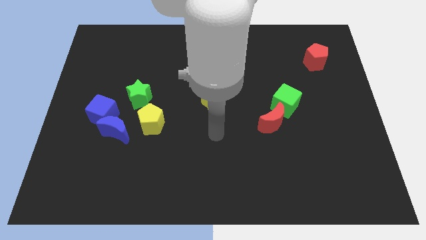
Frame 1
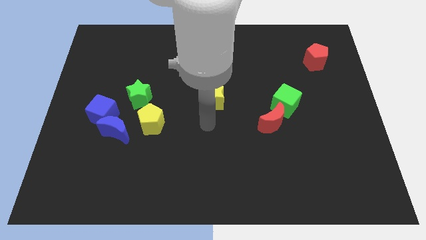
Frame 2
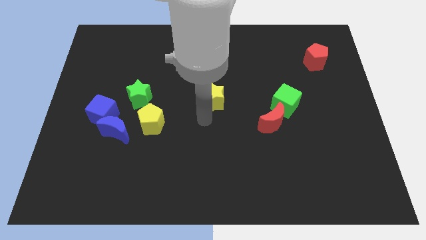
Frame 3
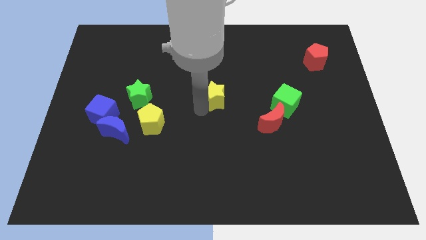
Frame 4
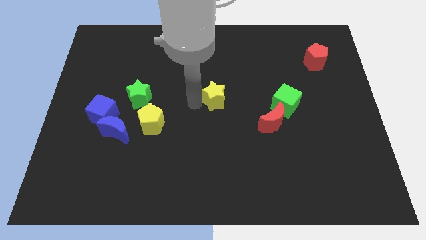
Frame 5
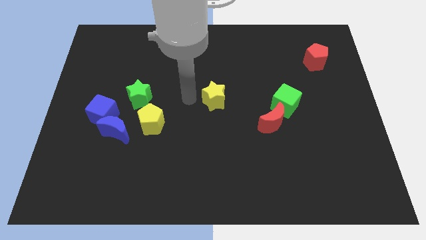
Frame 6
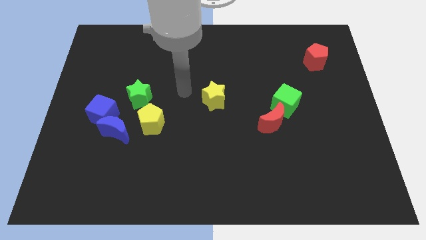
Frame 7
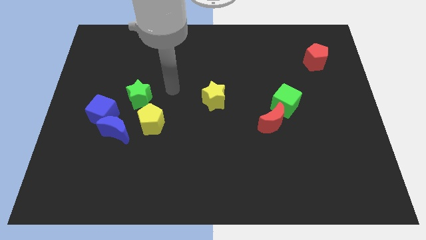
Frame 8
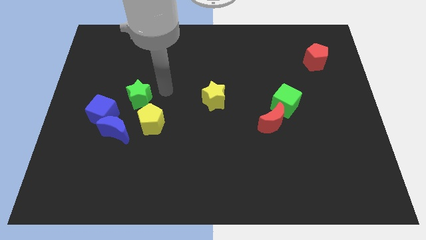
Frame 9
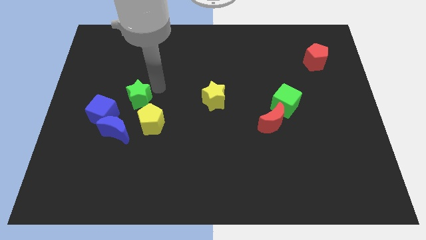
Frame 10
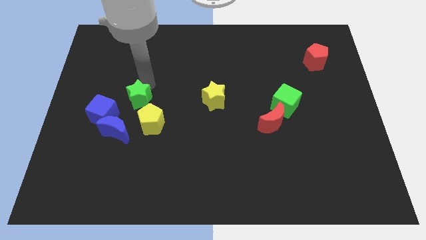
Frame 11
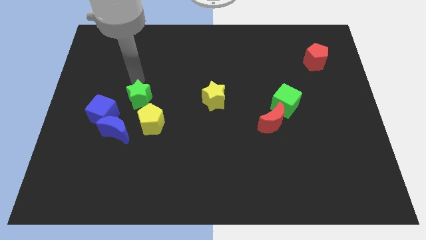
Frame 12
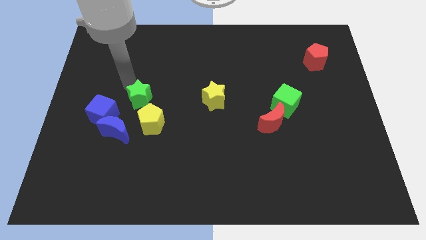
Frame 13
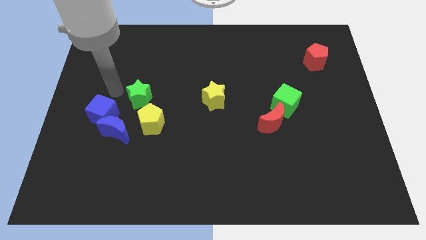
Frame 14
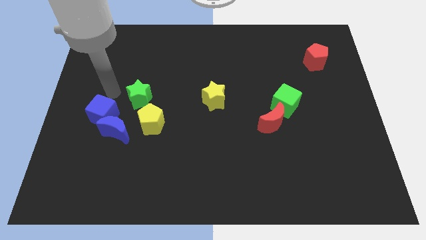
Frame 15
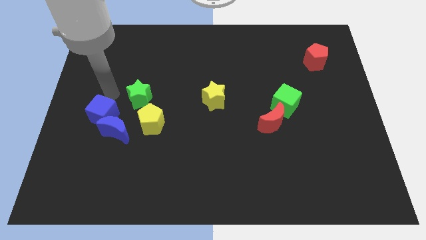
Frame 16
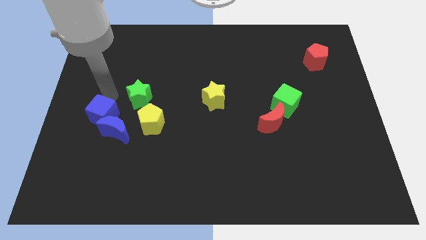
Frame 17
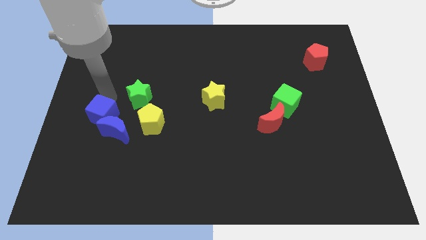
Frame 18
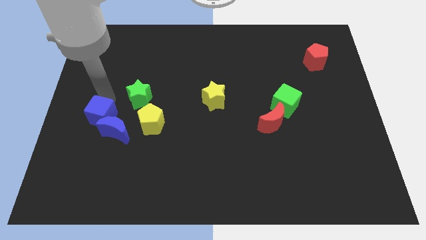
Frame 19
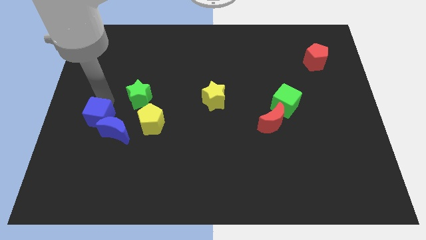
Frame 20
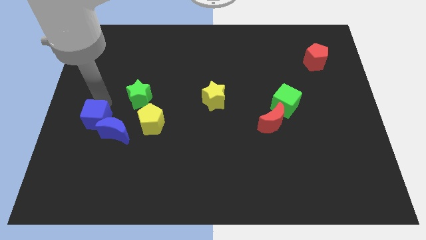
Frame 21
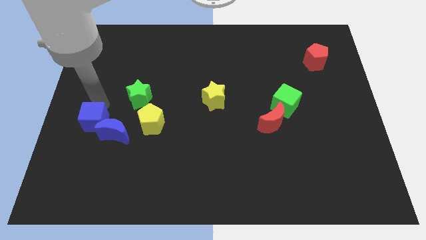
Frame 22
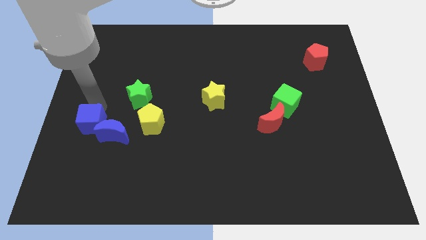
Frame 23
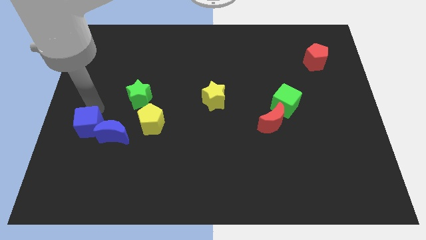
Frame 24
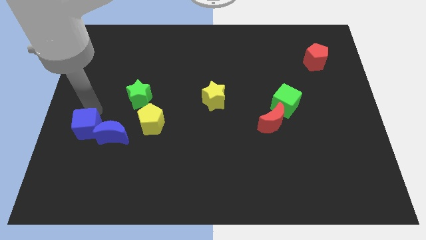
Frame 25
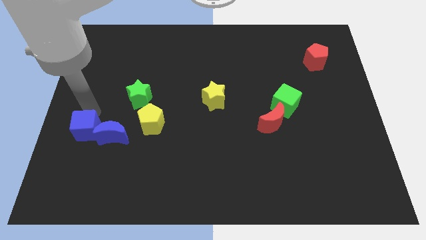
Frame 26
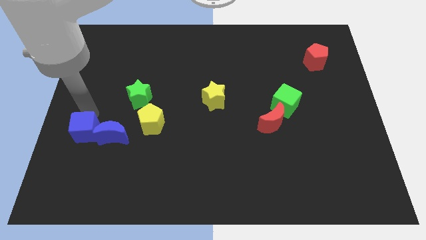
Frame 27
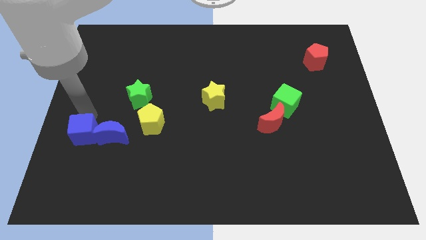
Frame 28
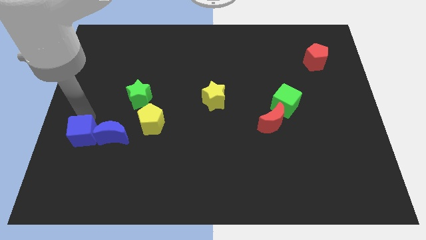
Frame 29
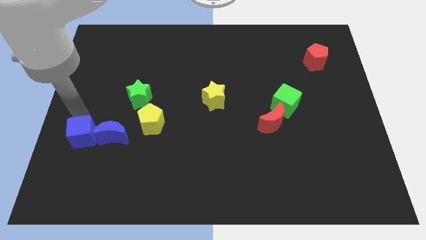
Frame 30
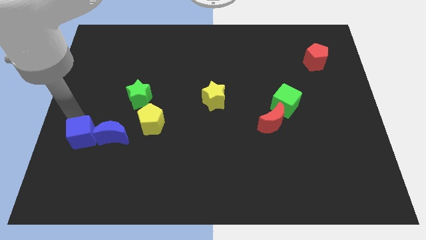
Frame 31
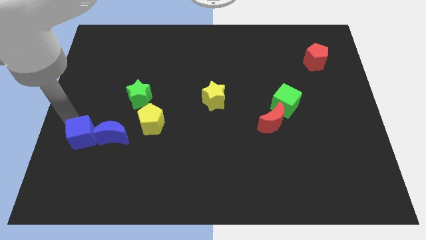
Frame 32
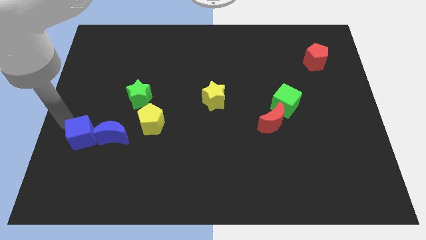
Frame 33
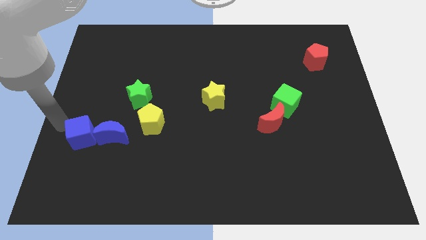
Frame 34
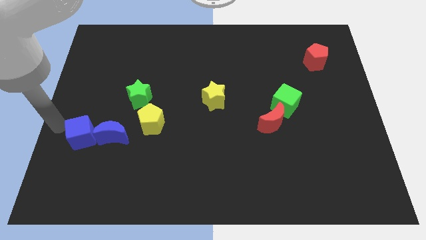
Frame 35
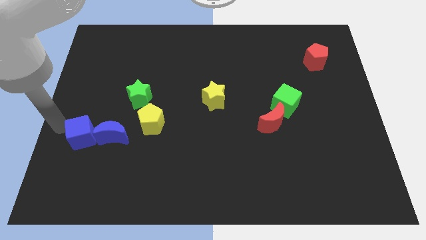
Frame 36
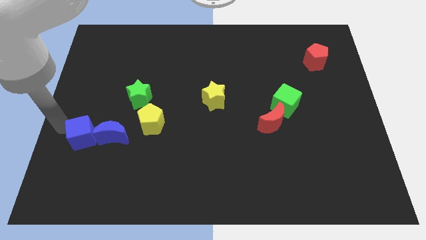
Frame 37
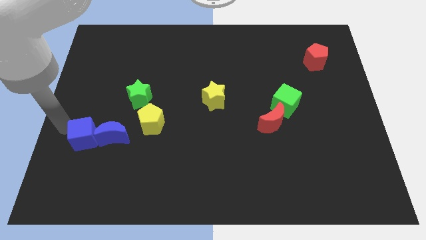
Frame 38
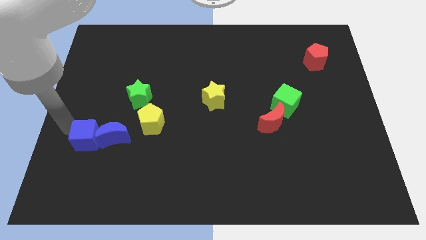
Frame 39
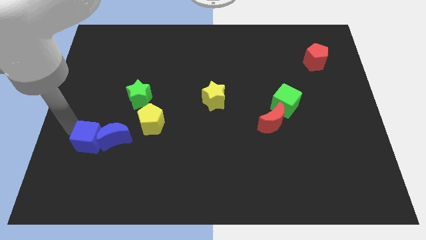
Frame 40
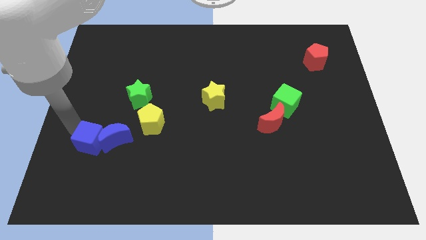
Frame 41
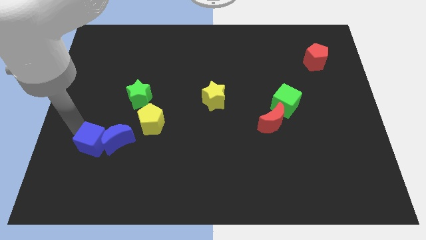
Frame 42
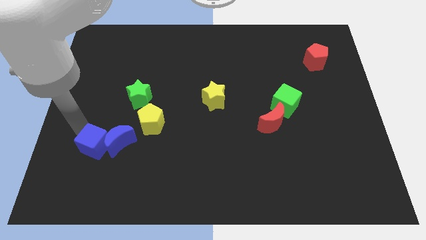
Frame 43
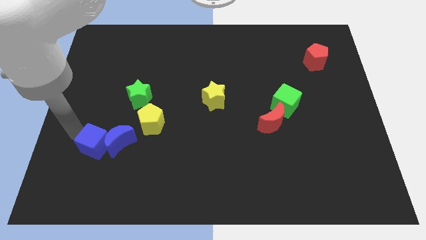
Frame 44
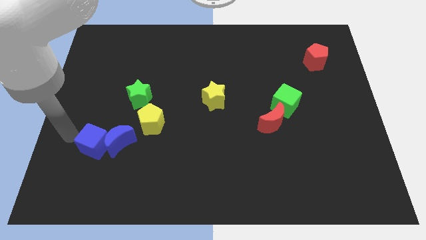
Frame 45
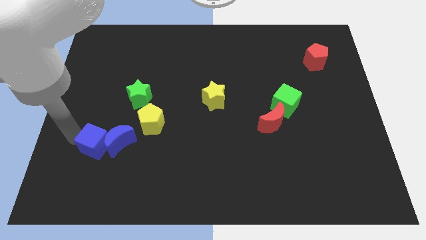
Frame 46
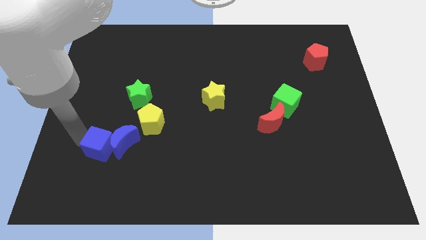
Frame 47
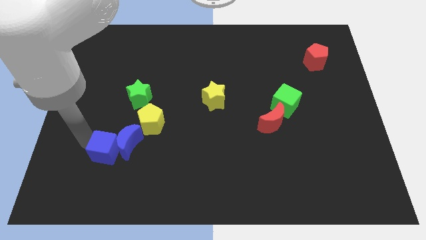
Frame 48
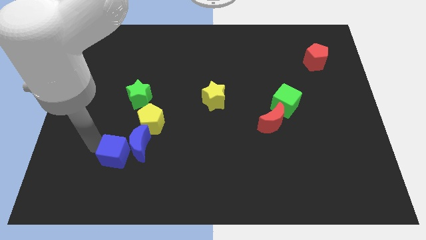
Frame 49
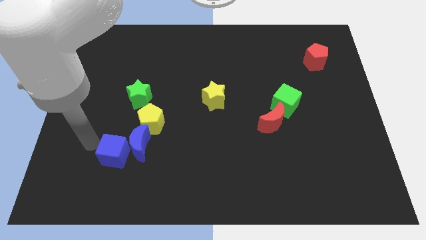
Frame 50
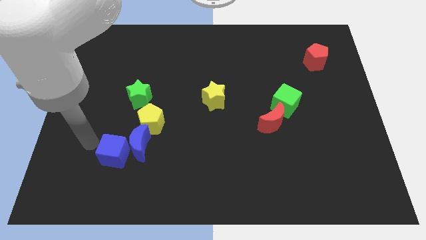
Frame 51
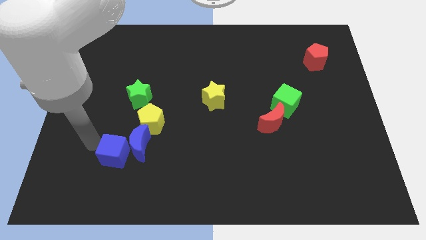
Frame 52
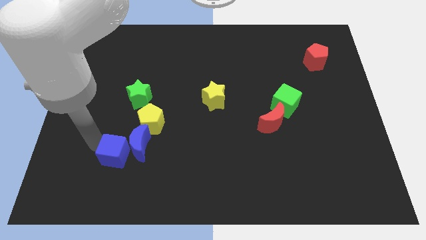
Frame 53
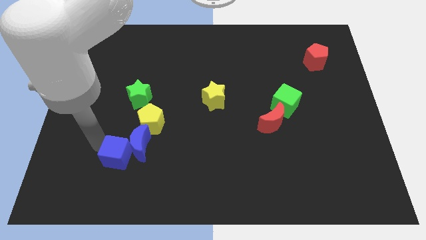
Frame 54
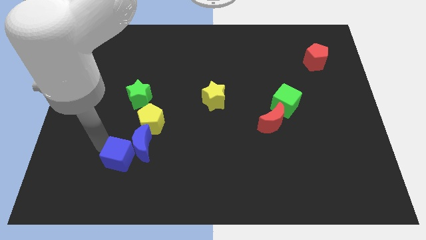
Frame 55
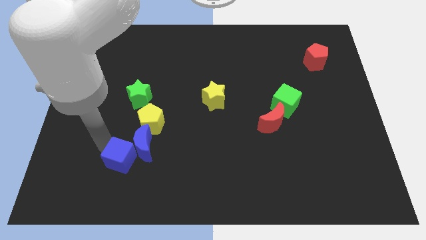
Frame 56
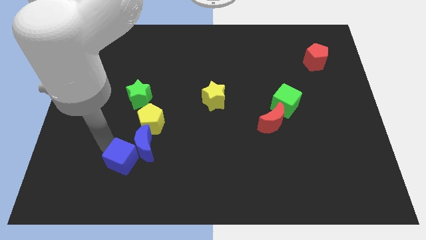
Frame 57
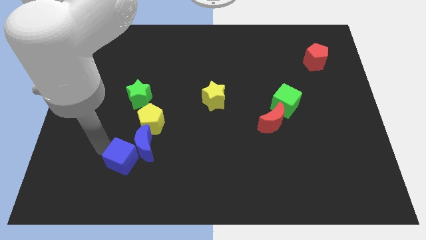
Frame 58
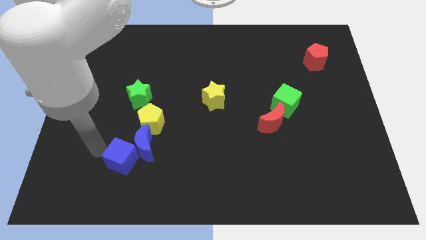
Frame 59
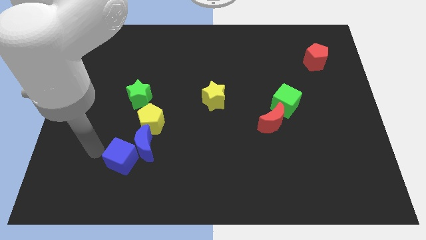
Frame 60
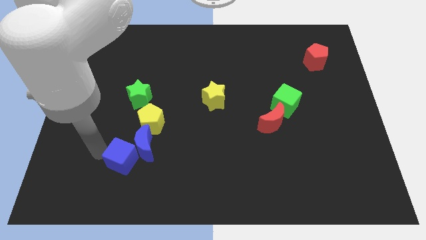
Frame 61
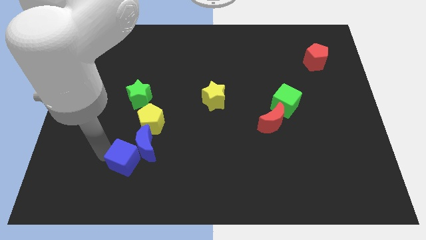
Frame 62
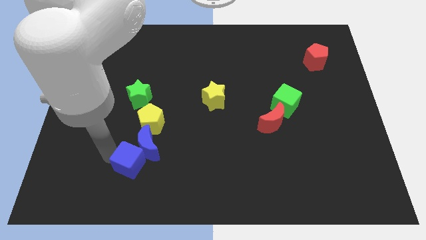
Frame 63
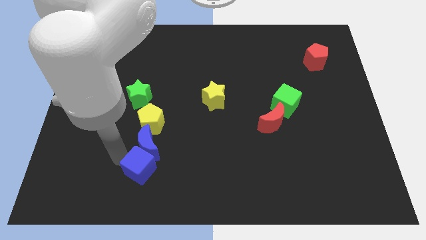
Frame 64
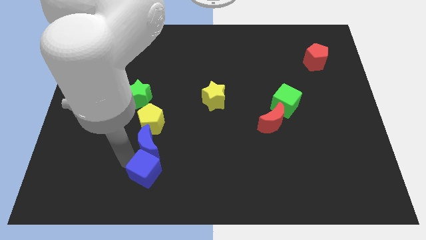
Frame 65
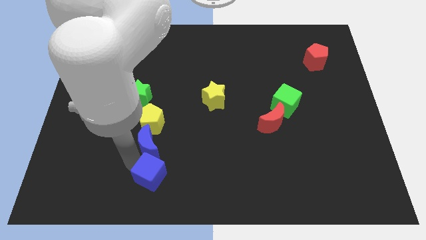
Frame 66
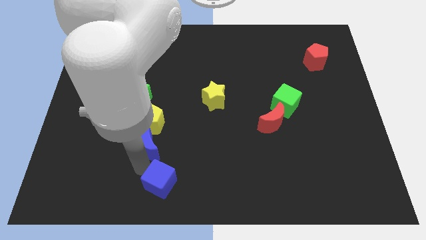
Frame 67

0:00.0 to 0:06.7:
move the blue cube to the bottom
